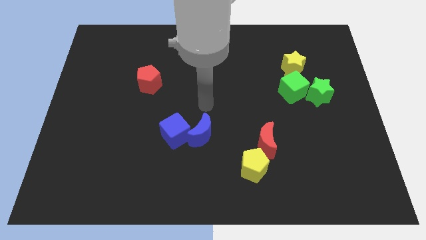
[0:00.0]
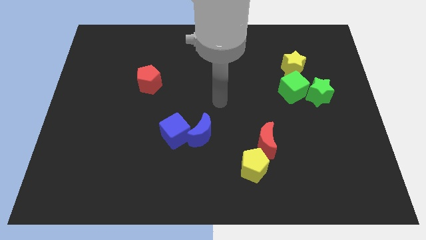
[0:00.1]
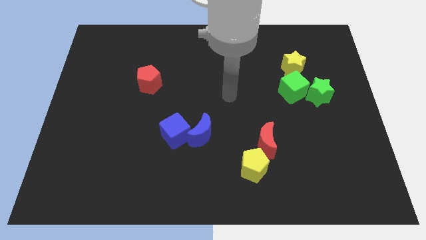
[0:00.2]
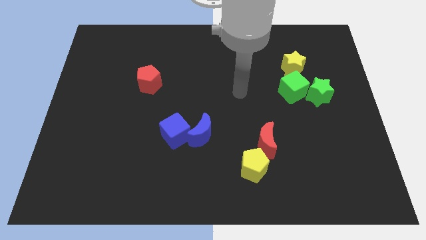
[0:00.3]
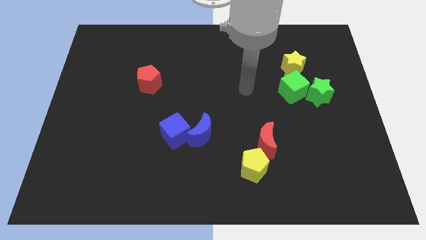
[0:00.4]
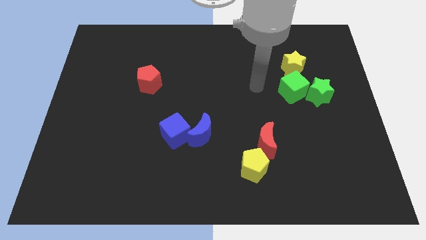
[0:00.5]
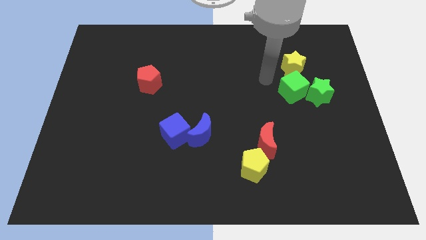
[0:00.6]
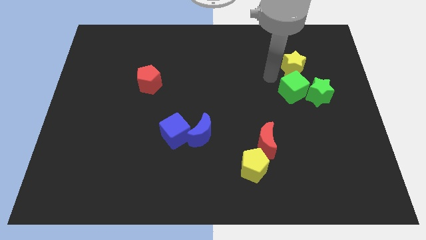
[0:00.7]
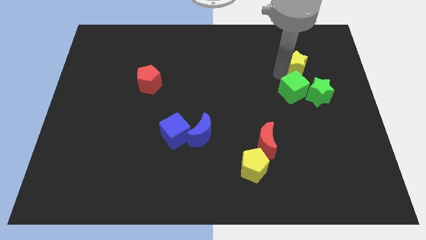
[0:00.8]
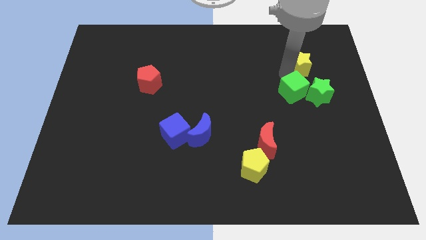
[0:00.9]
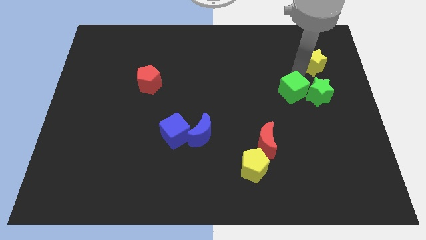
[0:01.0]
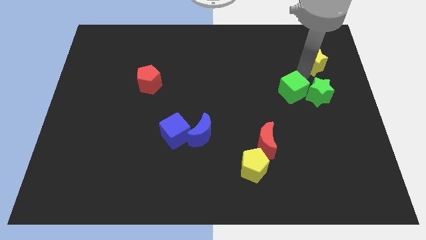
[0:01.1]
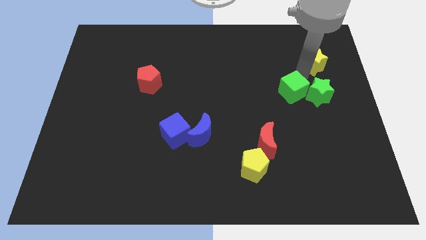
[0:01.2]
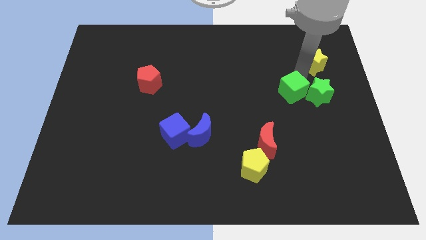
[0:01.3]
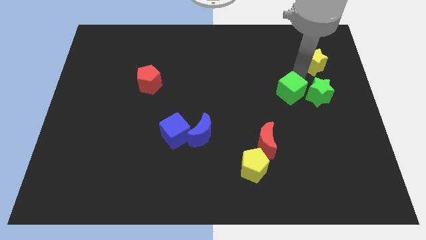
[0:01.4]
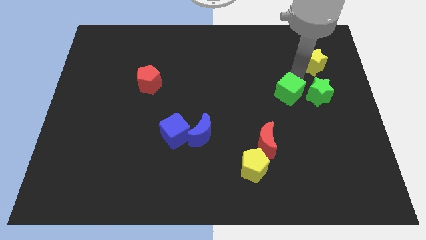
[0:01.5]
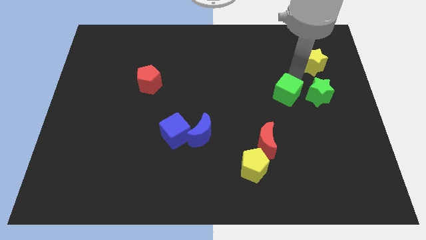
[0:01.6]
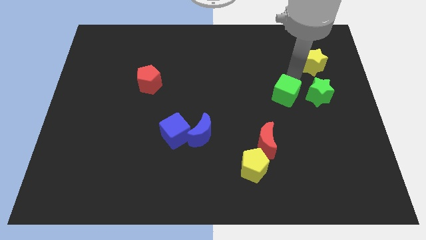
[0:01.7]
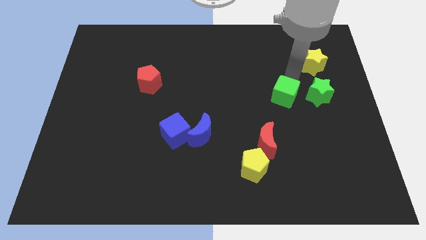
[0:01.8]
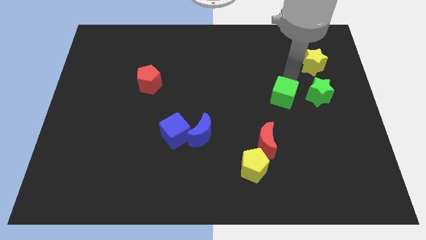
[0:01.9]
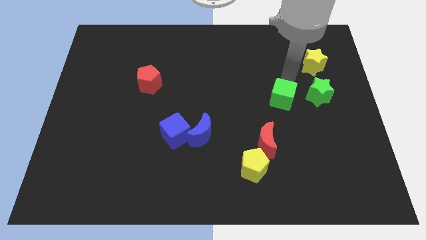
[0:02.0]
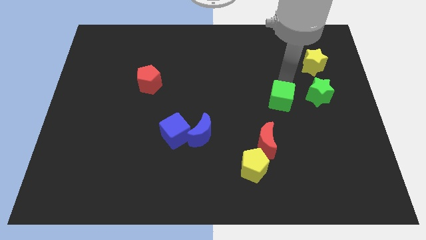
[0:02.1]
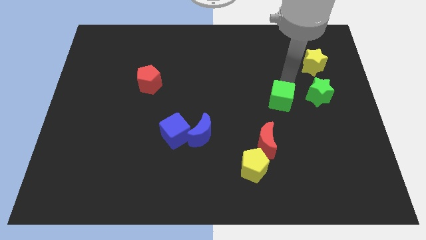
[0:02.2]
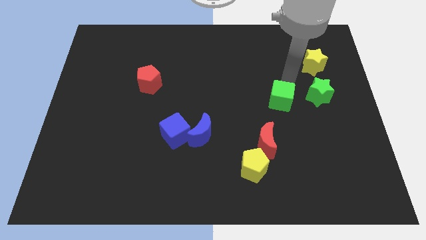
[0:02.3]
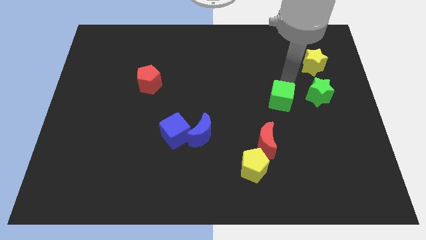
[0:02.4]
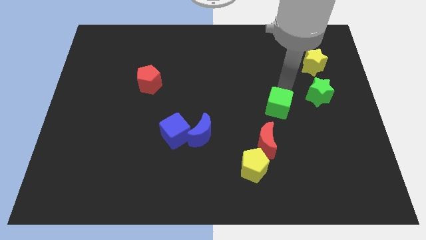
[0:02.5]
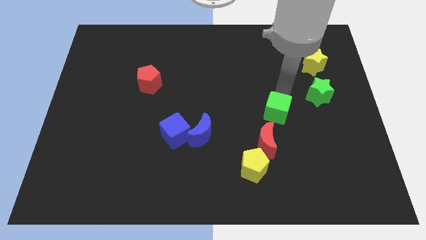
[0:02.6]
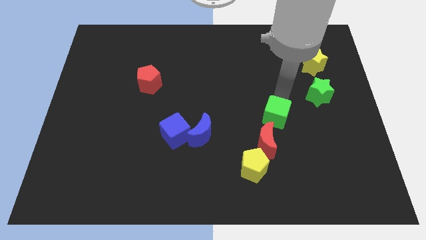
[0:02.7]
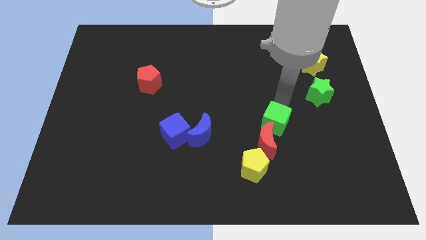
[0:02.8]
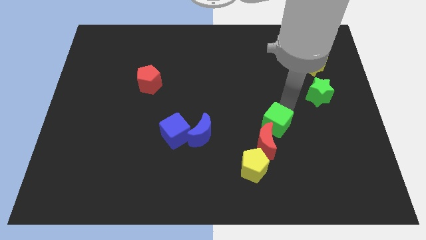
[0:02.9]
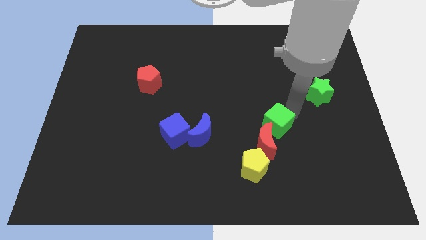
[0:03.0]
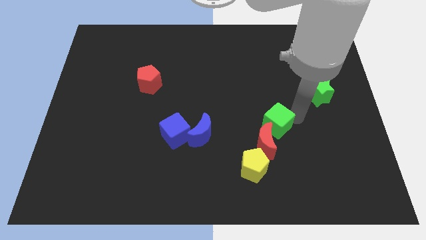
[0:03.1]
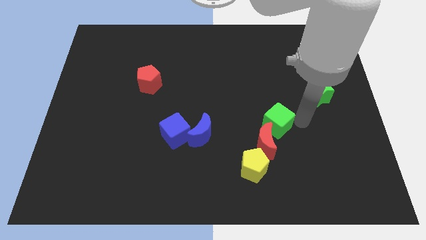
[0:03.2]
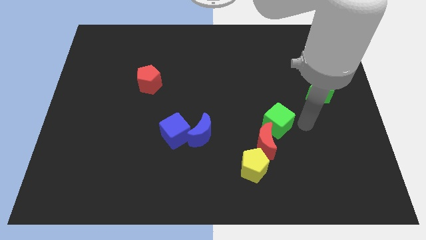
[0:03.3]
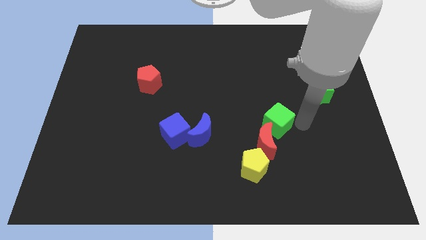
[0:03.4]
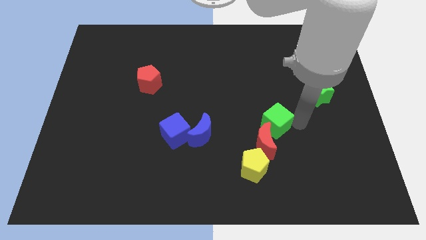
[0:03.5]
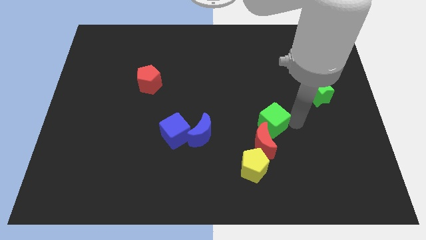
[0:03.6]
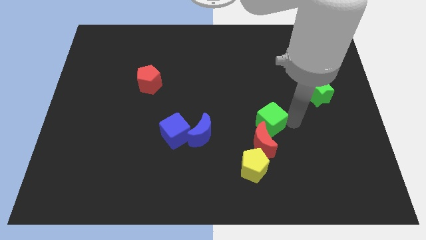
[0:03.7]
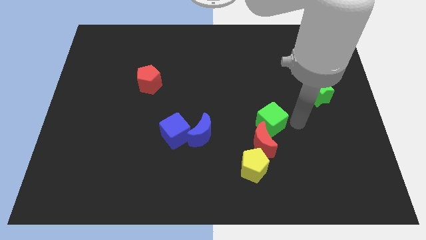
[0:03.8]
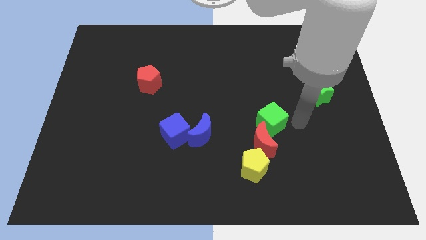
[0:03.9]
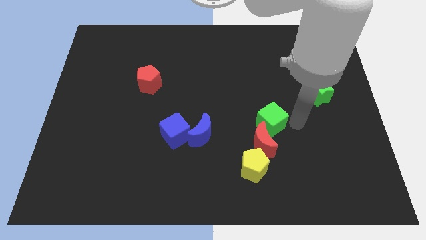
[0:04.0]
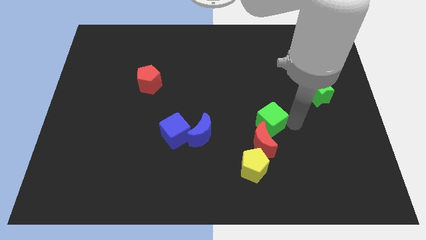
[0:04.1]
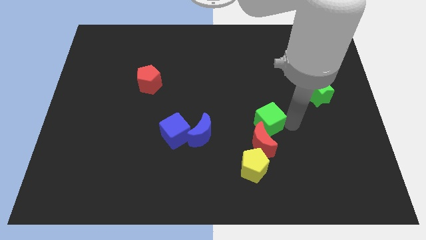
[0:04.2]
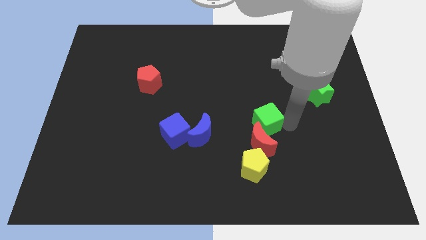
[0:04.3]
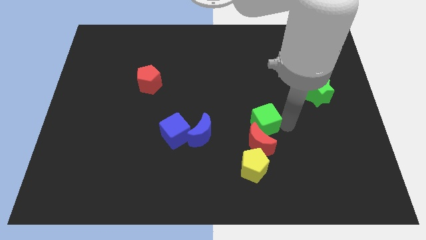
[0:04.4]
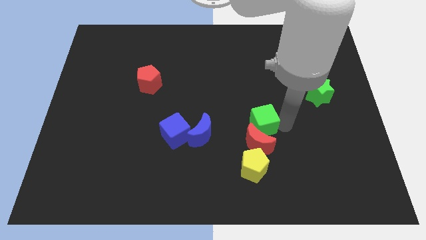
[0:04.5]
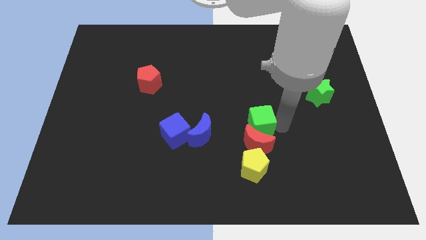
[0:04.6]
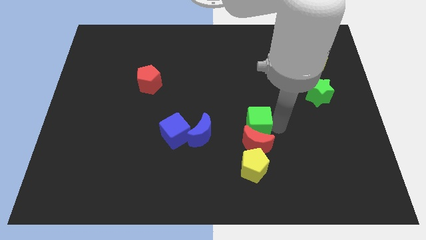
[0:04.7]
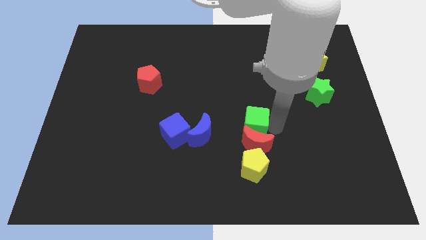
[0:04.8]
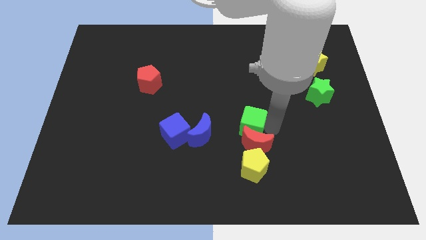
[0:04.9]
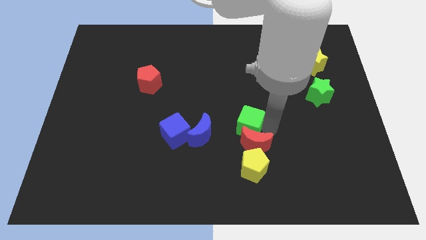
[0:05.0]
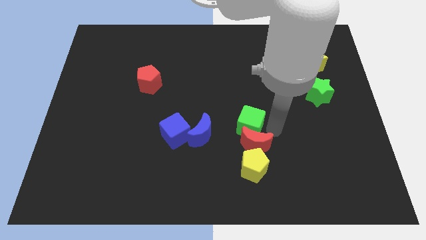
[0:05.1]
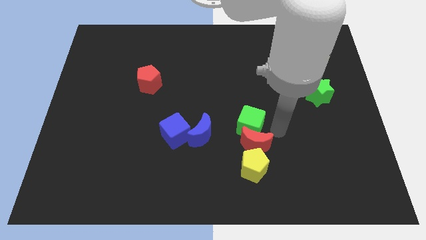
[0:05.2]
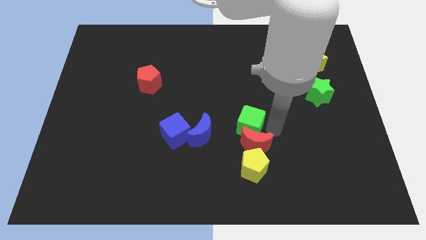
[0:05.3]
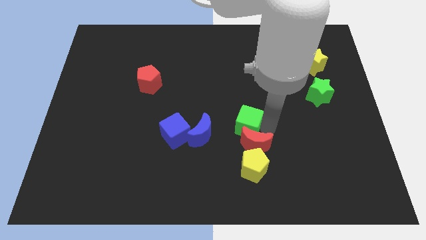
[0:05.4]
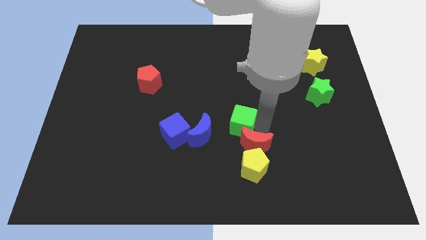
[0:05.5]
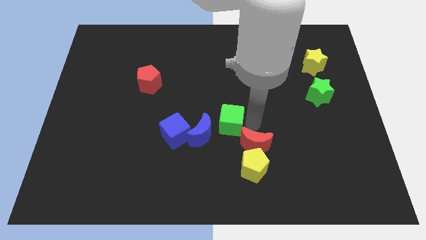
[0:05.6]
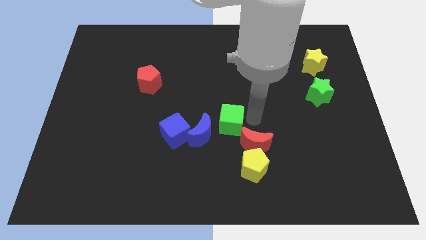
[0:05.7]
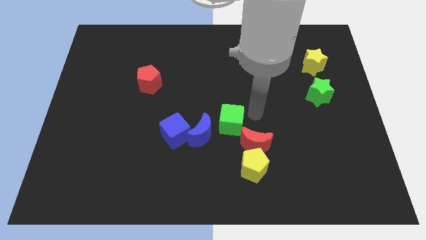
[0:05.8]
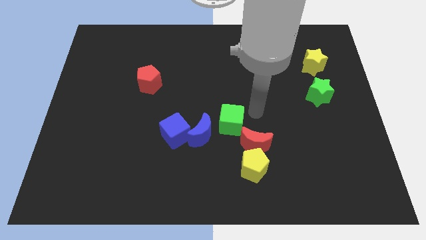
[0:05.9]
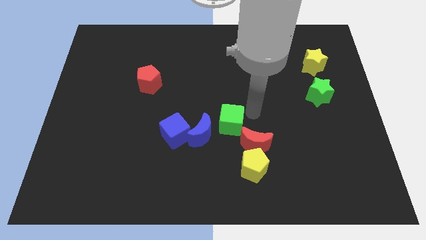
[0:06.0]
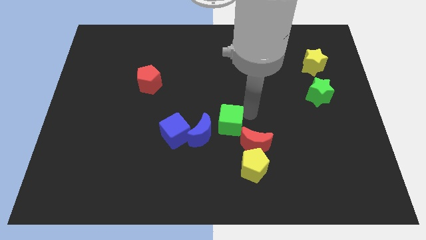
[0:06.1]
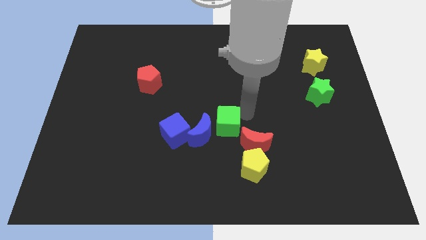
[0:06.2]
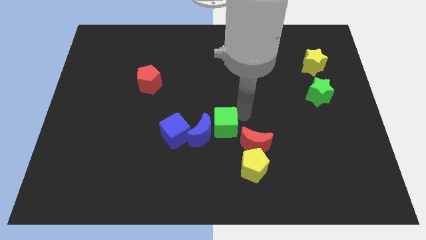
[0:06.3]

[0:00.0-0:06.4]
slide the green cube towards the blue moon
